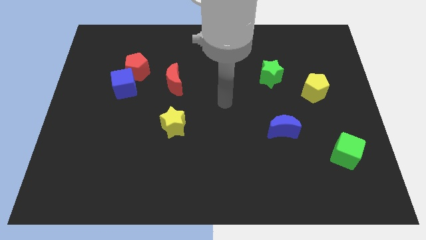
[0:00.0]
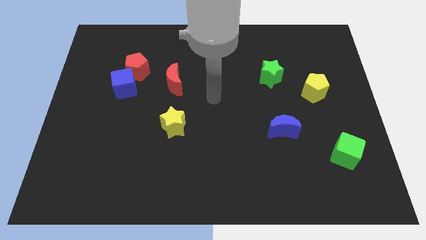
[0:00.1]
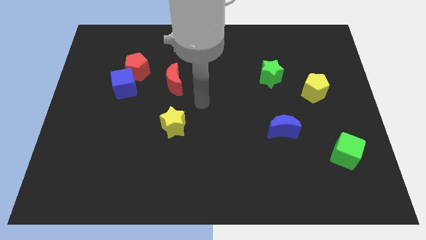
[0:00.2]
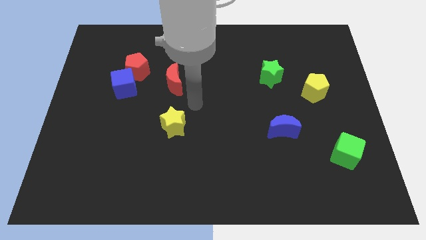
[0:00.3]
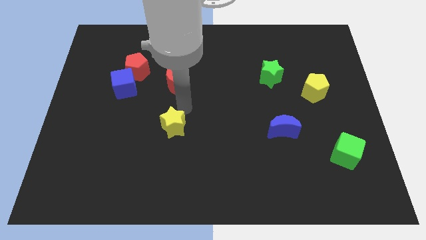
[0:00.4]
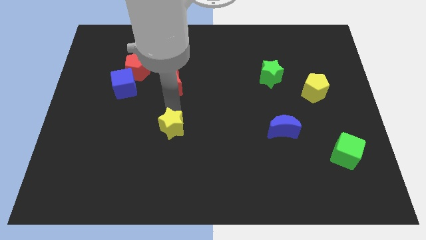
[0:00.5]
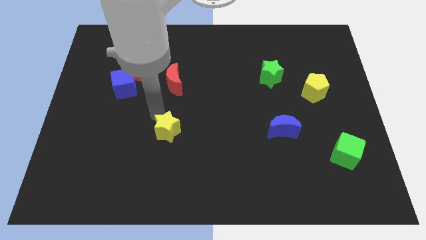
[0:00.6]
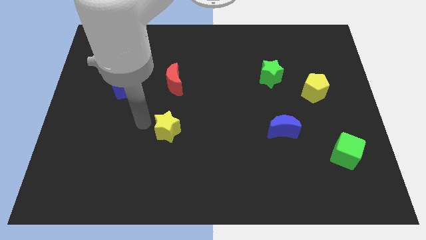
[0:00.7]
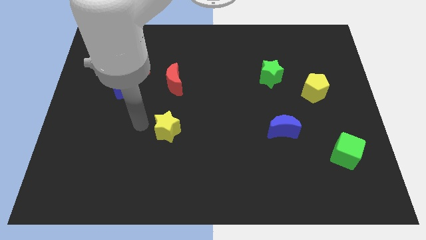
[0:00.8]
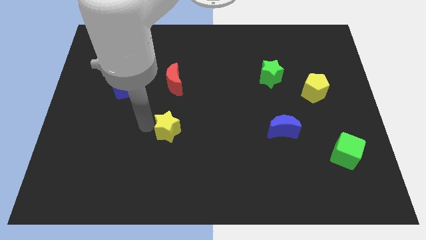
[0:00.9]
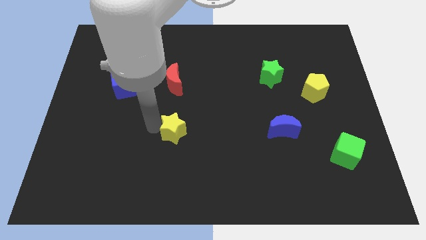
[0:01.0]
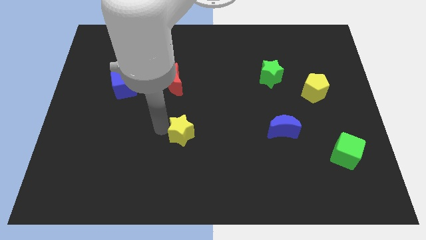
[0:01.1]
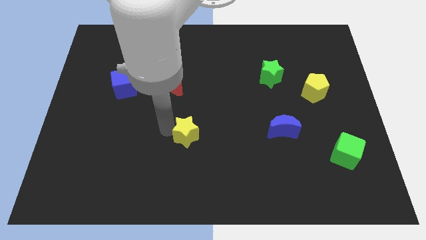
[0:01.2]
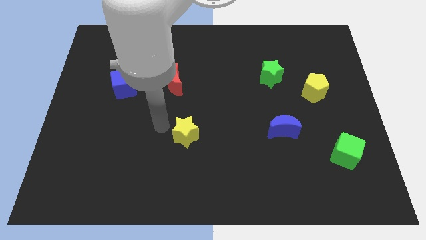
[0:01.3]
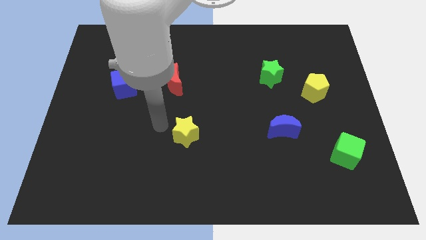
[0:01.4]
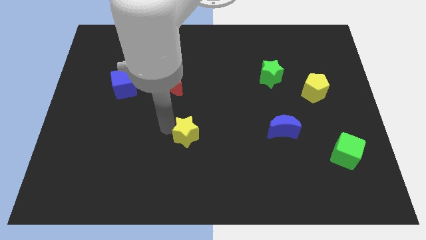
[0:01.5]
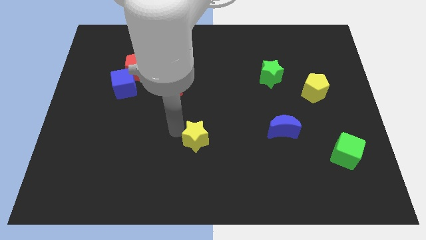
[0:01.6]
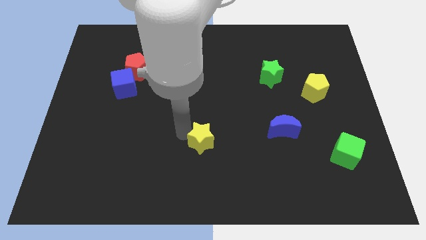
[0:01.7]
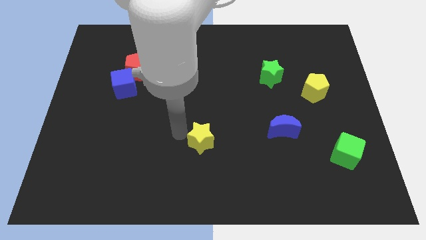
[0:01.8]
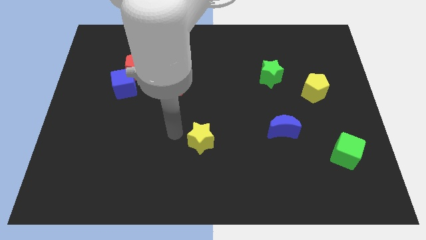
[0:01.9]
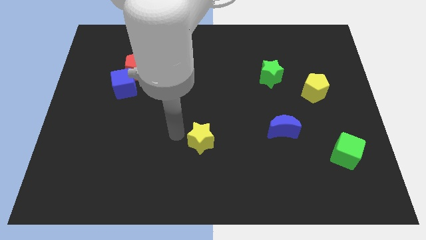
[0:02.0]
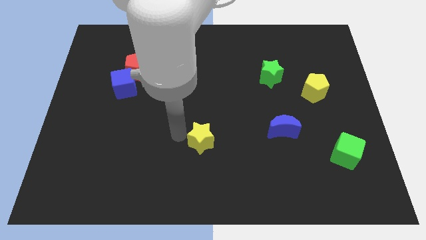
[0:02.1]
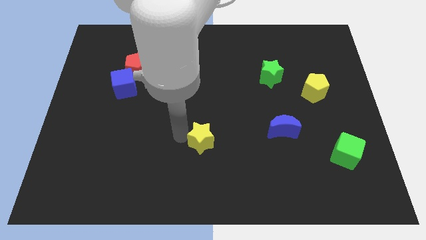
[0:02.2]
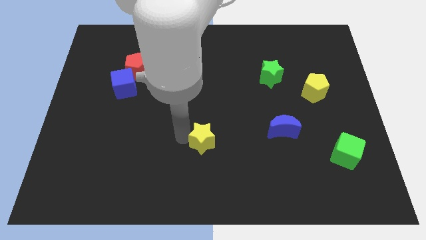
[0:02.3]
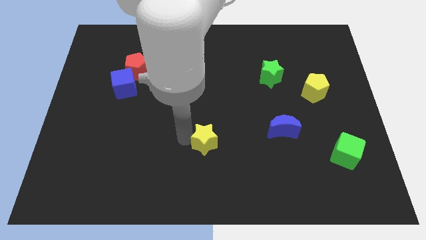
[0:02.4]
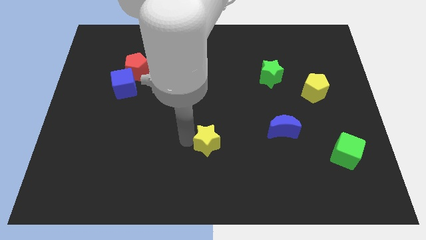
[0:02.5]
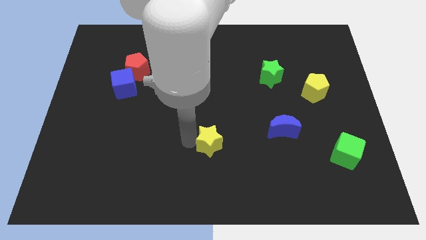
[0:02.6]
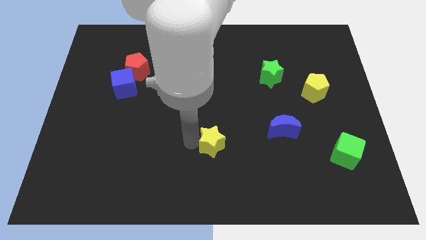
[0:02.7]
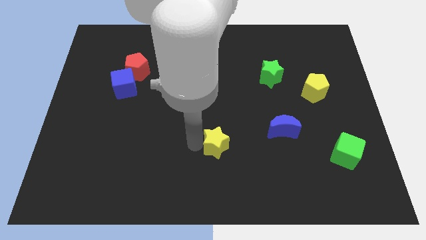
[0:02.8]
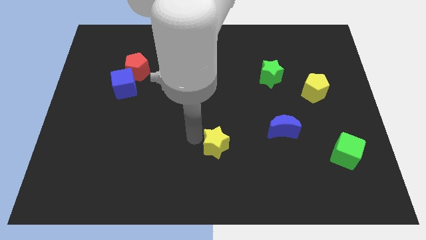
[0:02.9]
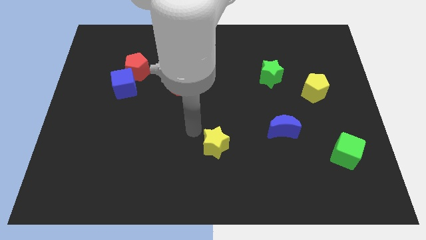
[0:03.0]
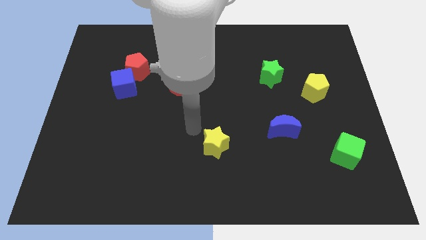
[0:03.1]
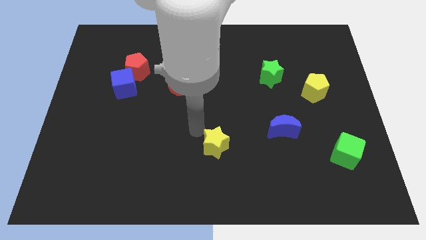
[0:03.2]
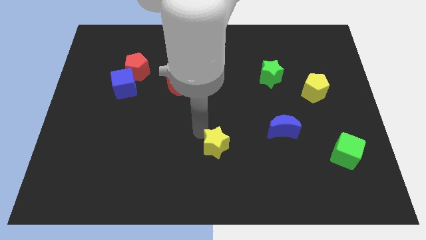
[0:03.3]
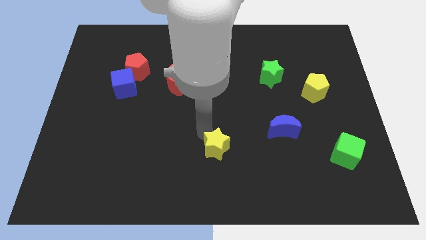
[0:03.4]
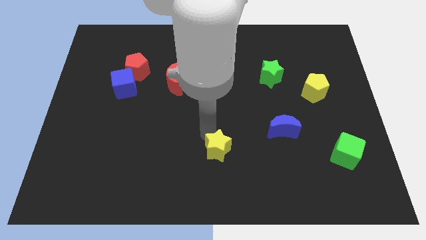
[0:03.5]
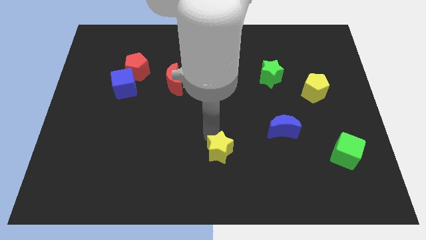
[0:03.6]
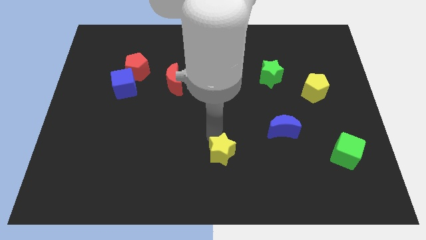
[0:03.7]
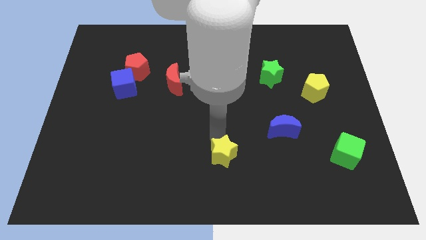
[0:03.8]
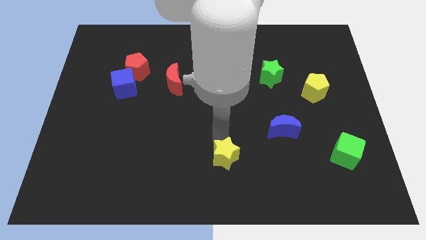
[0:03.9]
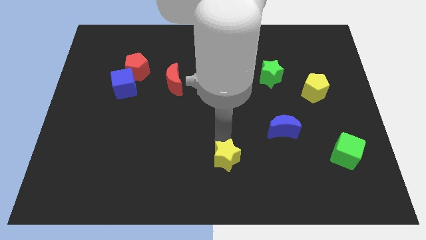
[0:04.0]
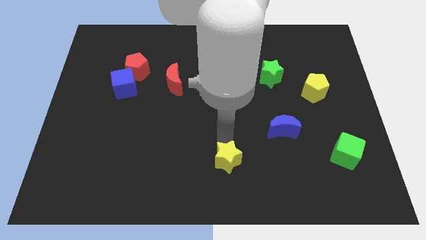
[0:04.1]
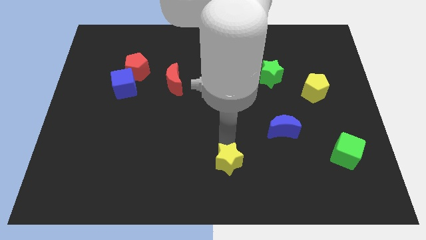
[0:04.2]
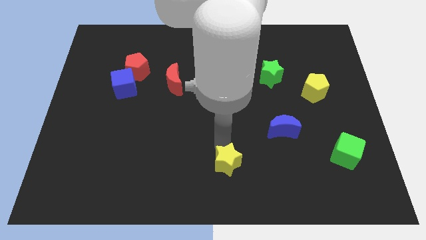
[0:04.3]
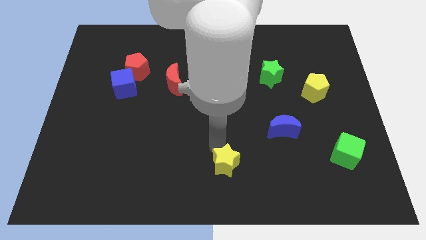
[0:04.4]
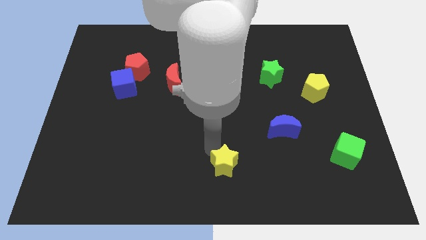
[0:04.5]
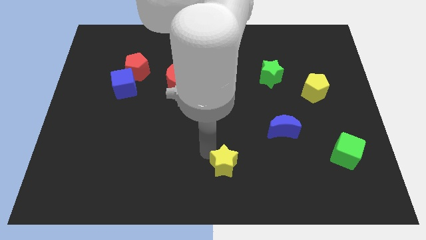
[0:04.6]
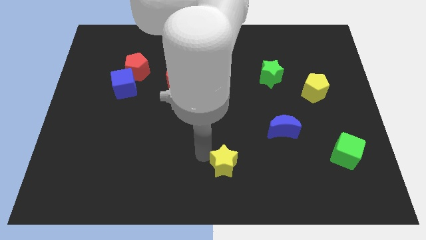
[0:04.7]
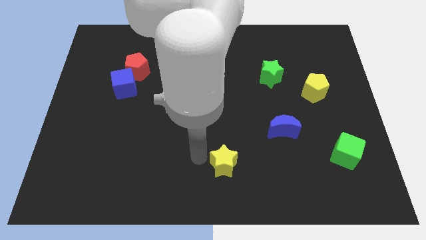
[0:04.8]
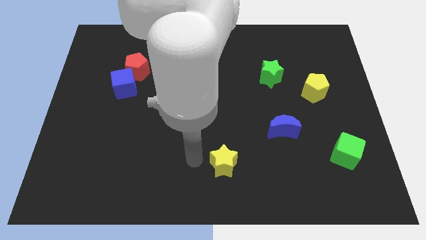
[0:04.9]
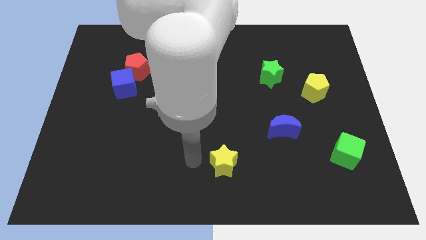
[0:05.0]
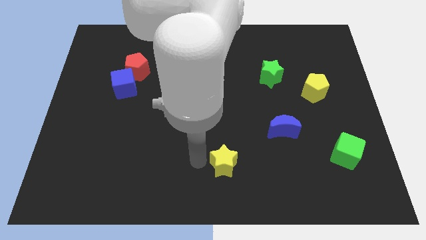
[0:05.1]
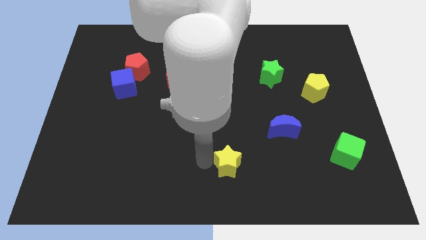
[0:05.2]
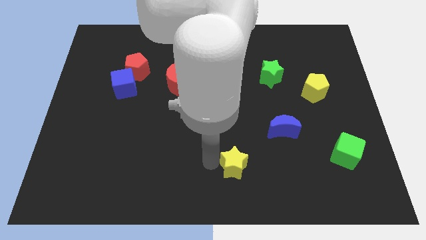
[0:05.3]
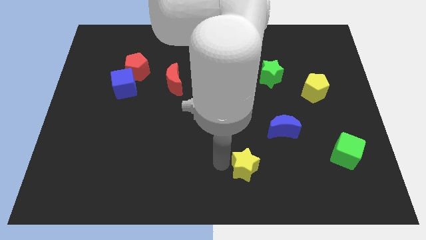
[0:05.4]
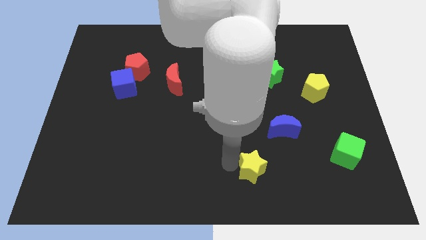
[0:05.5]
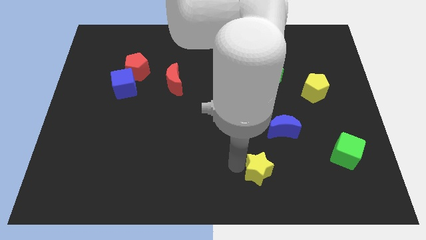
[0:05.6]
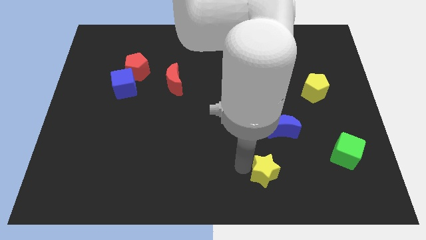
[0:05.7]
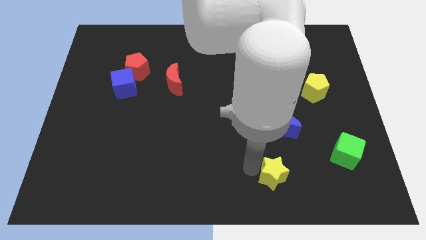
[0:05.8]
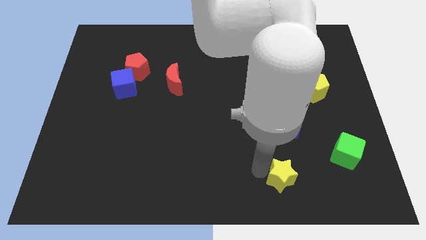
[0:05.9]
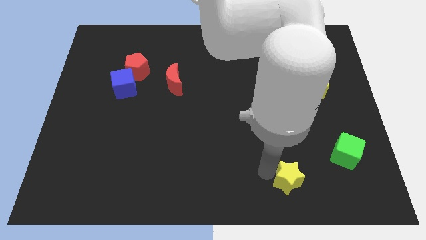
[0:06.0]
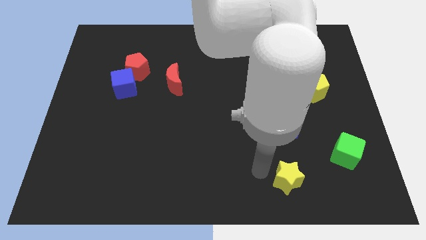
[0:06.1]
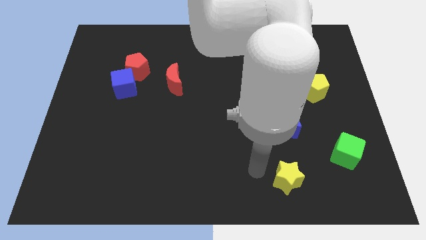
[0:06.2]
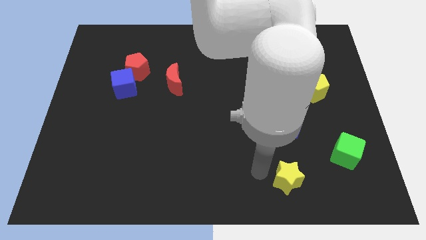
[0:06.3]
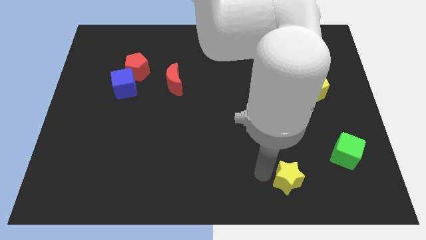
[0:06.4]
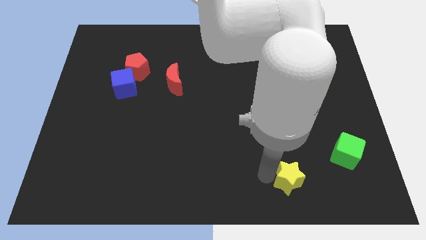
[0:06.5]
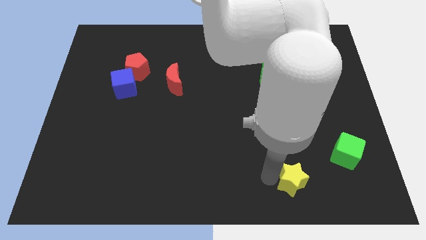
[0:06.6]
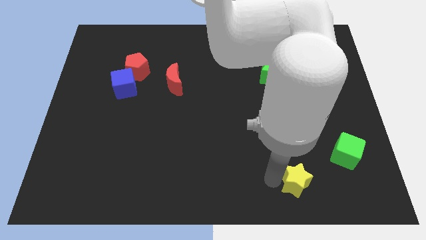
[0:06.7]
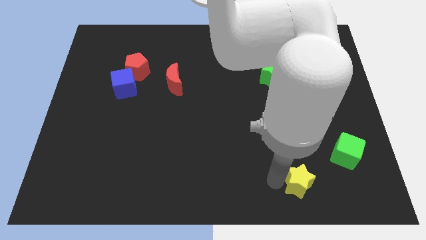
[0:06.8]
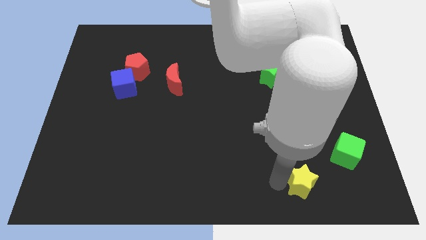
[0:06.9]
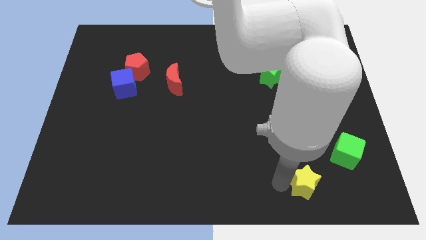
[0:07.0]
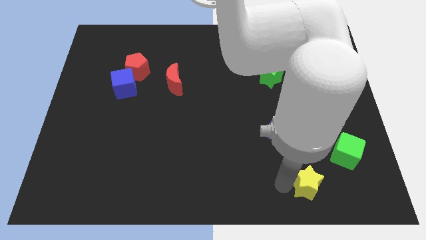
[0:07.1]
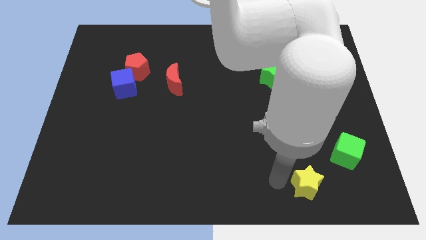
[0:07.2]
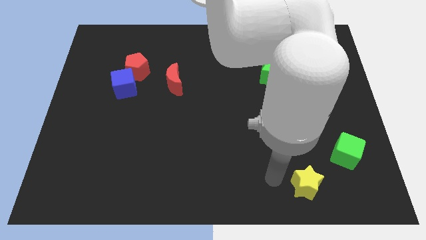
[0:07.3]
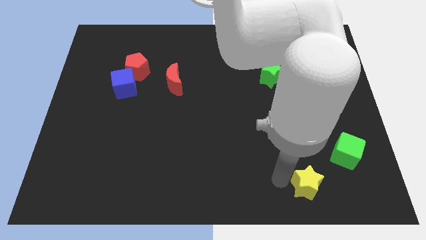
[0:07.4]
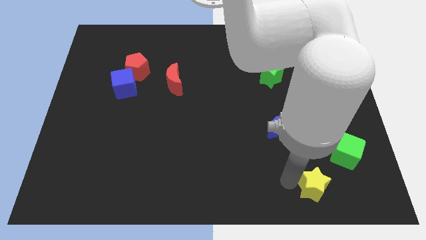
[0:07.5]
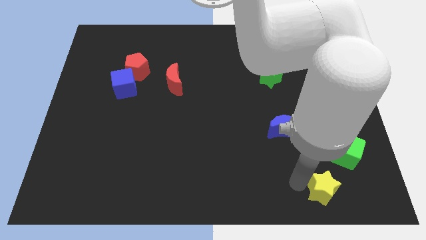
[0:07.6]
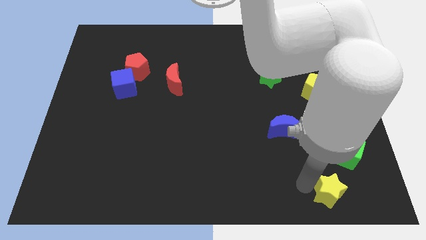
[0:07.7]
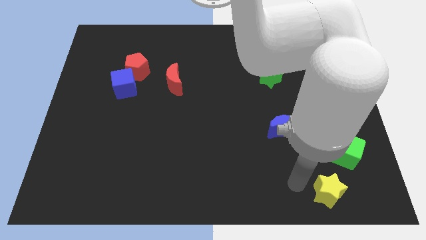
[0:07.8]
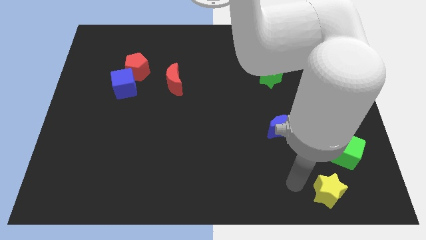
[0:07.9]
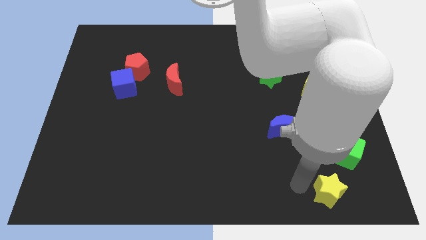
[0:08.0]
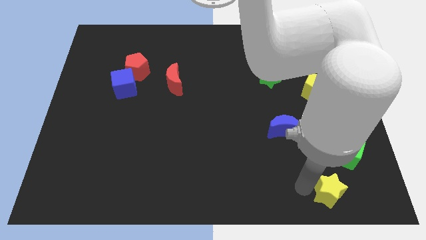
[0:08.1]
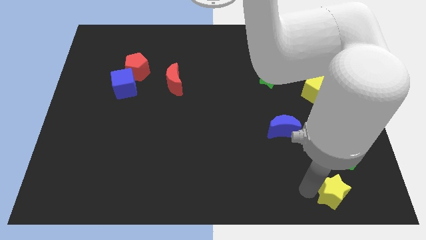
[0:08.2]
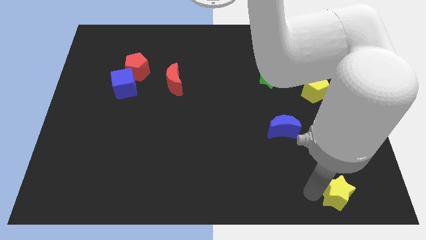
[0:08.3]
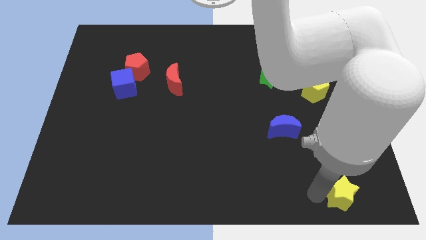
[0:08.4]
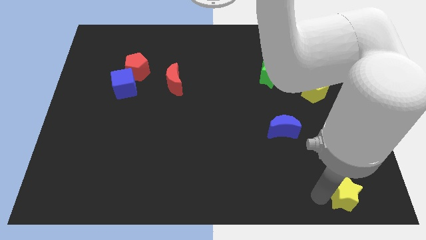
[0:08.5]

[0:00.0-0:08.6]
move the yellow star to the lower right corner
